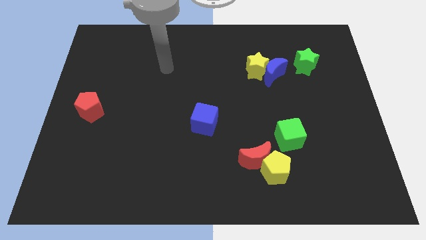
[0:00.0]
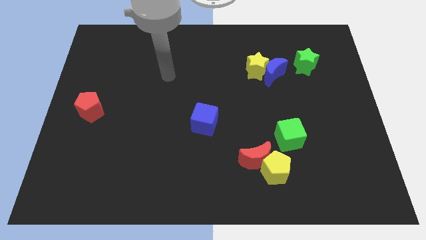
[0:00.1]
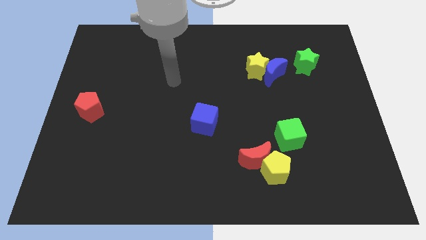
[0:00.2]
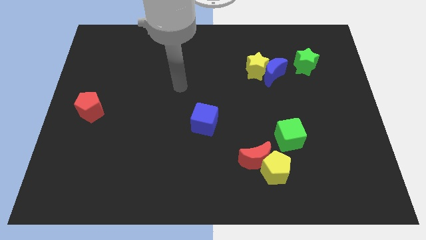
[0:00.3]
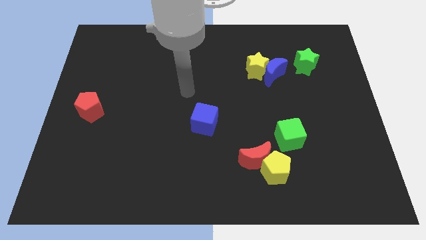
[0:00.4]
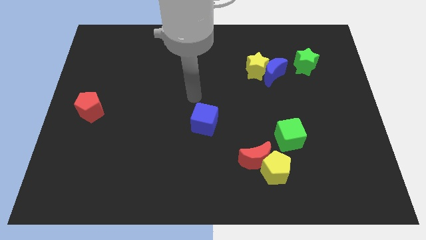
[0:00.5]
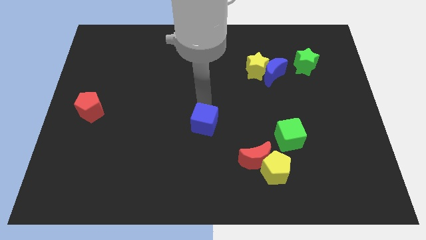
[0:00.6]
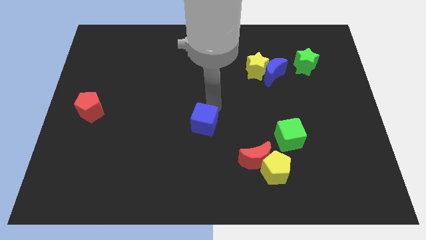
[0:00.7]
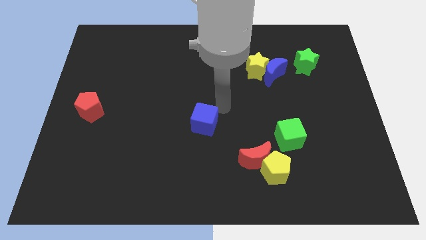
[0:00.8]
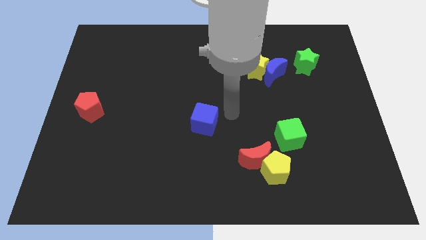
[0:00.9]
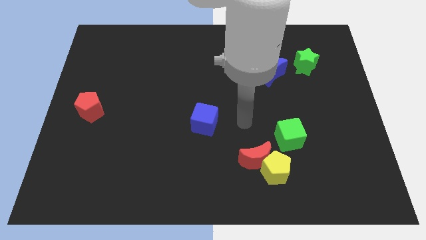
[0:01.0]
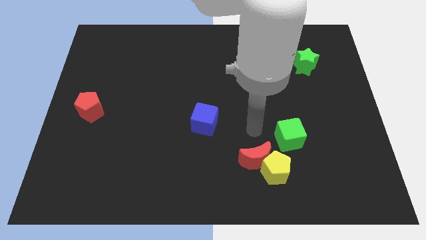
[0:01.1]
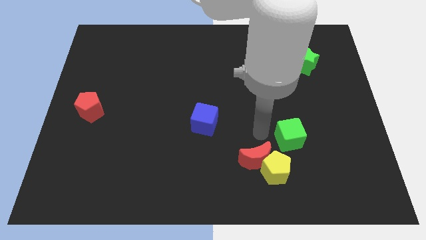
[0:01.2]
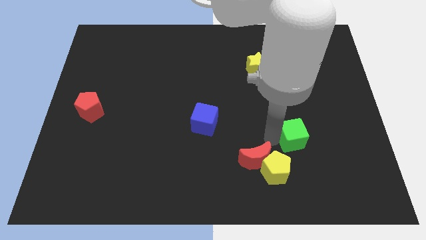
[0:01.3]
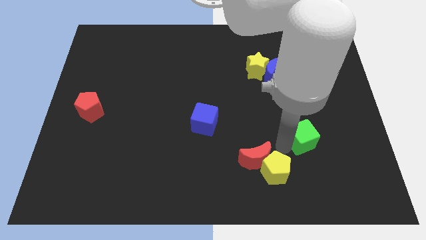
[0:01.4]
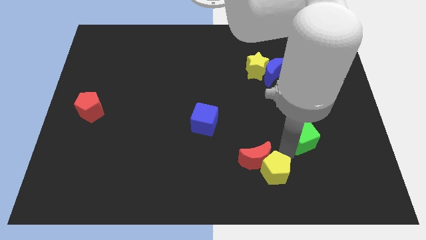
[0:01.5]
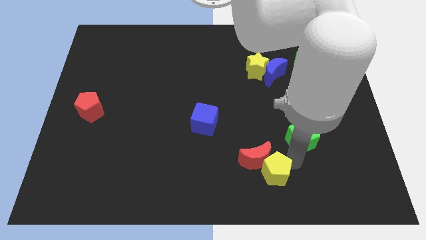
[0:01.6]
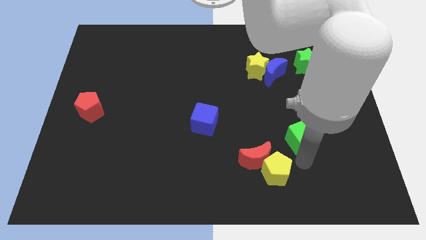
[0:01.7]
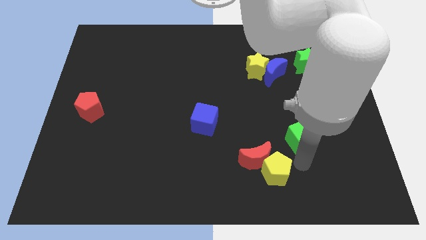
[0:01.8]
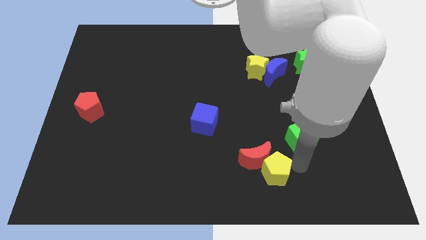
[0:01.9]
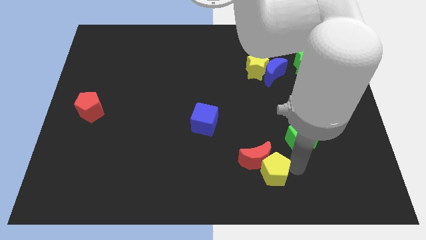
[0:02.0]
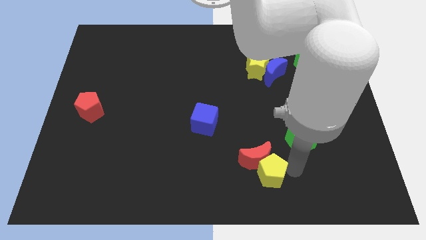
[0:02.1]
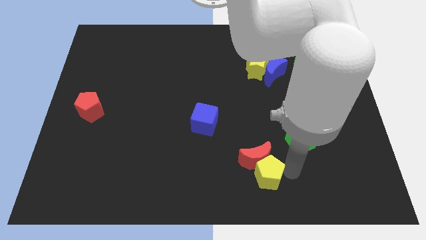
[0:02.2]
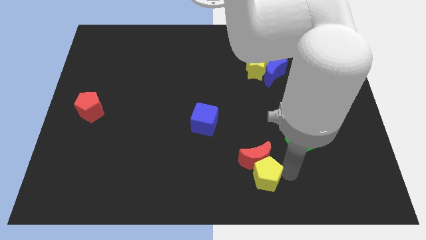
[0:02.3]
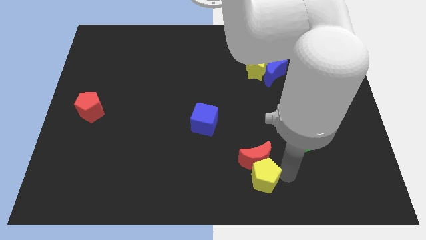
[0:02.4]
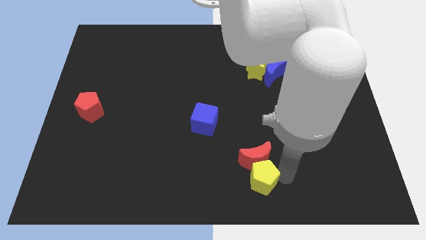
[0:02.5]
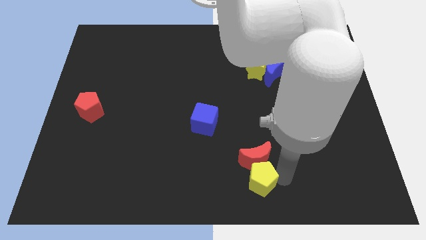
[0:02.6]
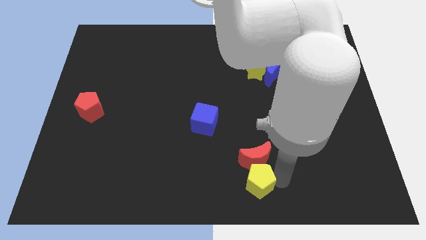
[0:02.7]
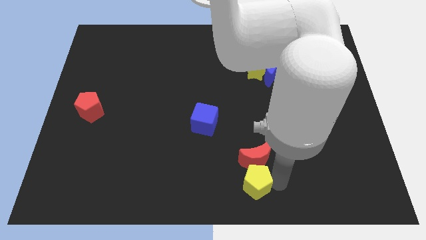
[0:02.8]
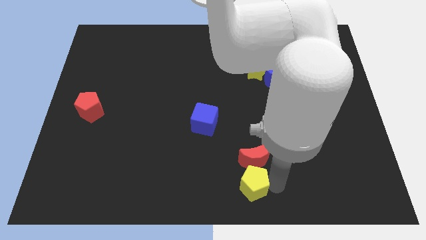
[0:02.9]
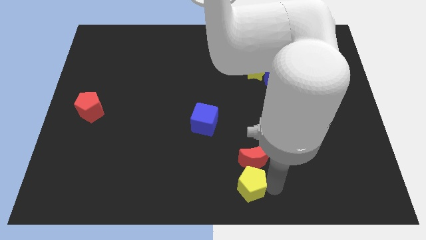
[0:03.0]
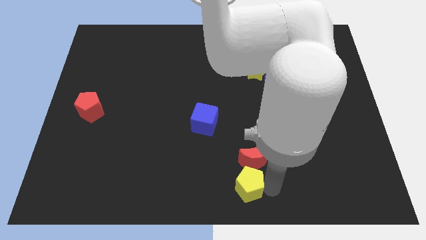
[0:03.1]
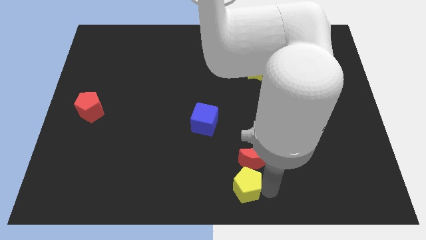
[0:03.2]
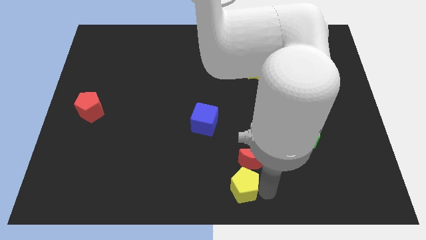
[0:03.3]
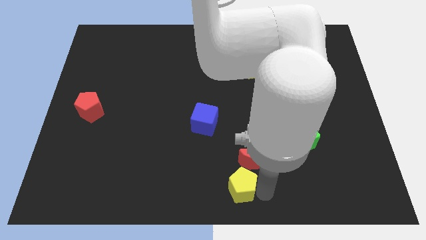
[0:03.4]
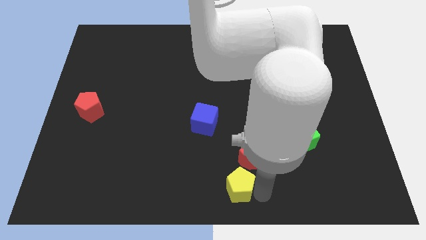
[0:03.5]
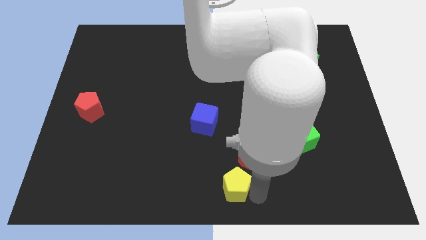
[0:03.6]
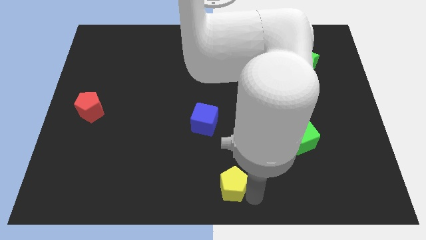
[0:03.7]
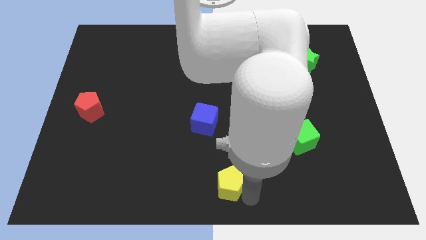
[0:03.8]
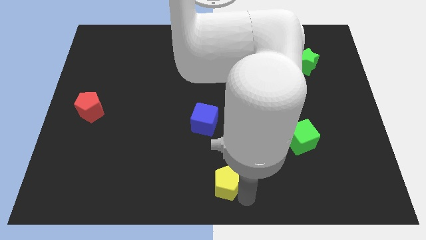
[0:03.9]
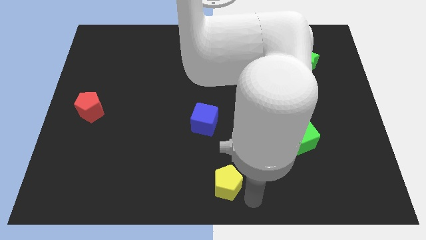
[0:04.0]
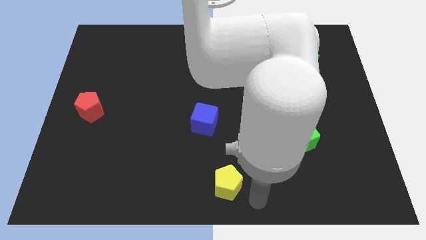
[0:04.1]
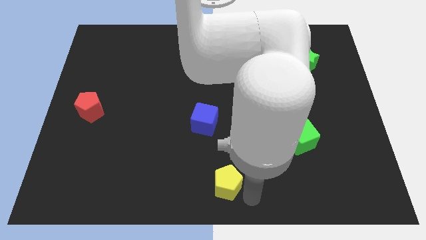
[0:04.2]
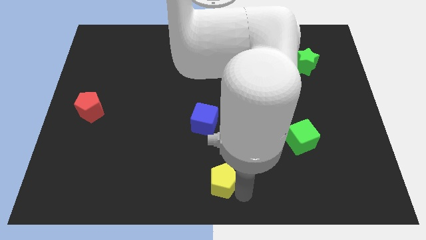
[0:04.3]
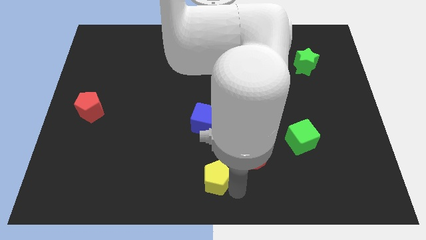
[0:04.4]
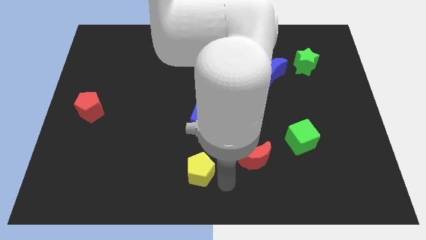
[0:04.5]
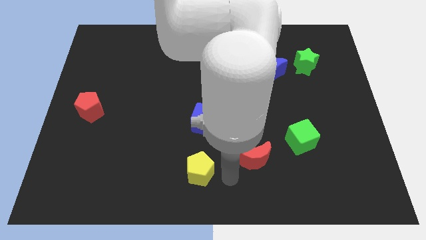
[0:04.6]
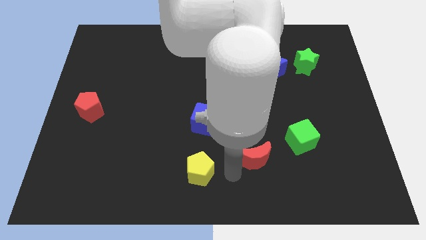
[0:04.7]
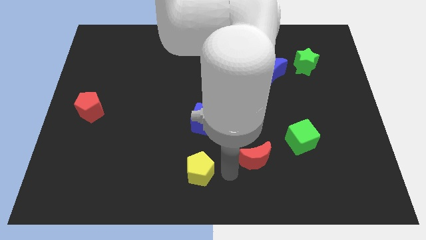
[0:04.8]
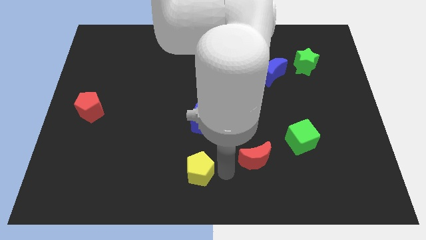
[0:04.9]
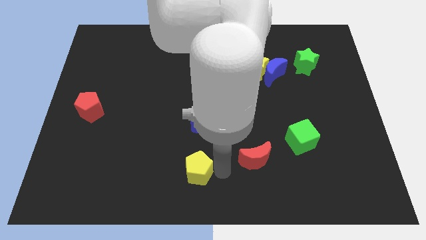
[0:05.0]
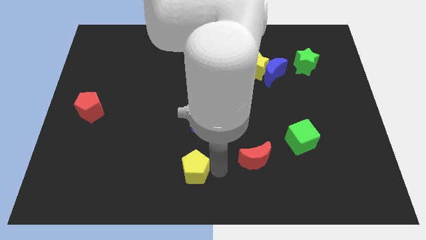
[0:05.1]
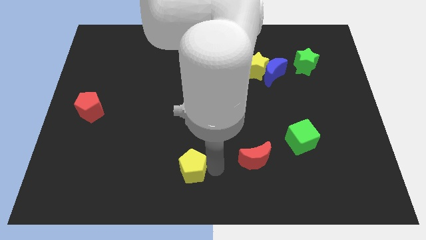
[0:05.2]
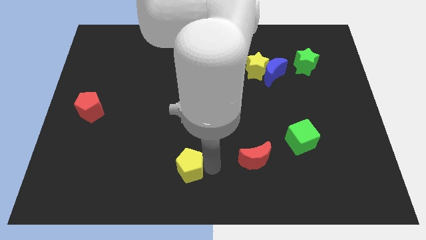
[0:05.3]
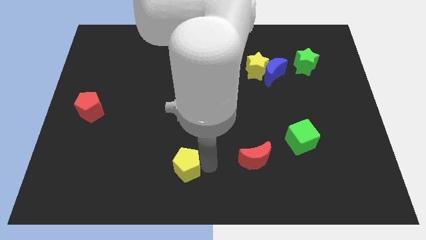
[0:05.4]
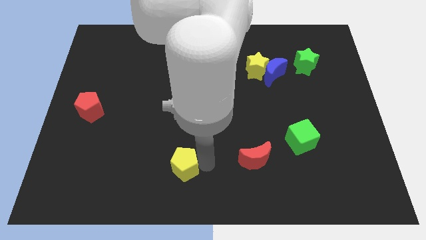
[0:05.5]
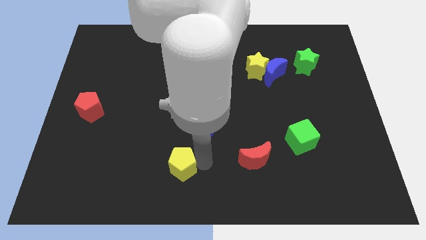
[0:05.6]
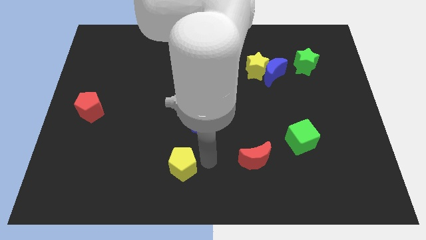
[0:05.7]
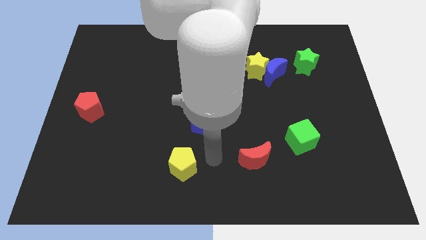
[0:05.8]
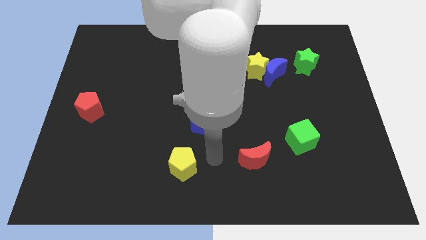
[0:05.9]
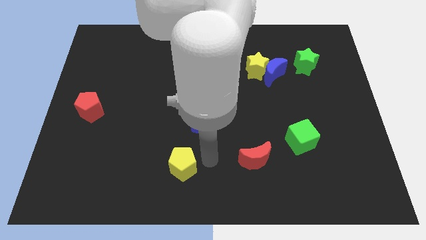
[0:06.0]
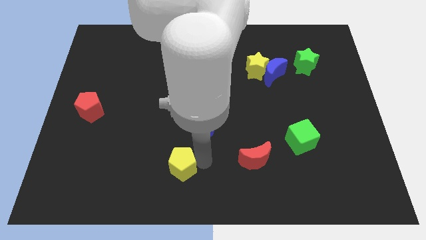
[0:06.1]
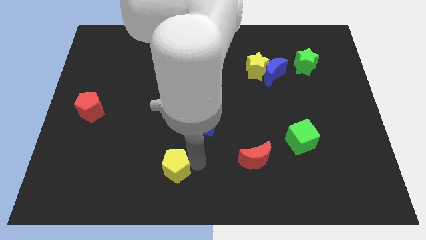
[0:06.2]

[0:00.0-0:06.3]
push the yellow pentagon left

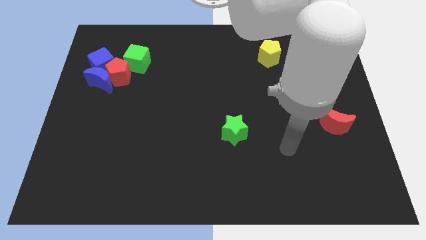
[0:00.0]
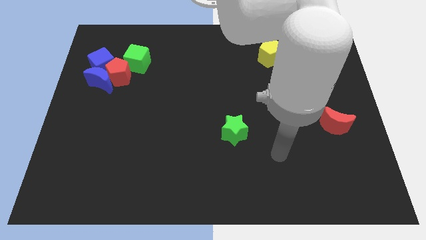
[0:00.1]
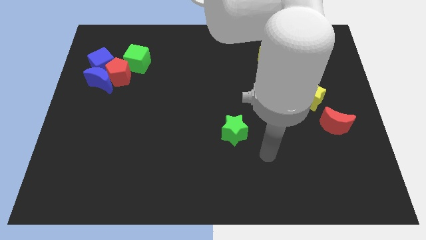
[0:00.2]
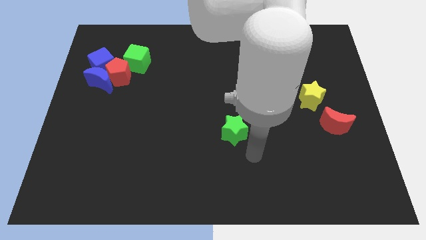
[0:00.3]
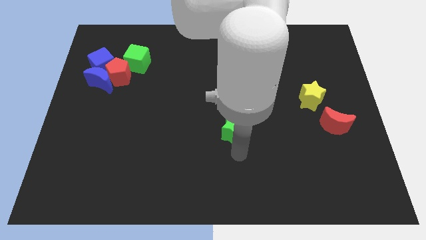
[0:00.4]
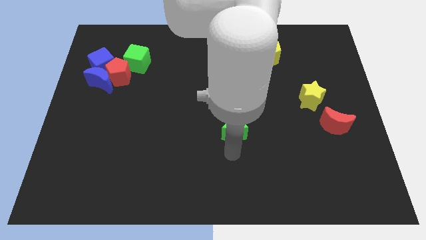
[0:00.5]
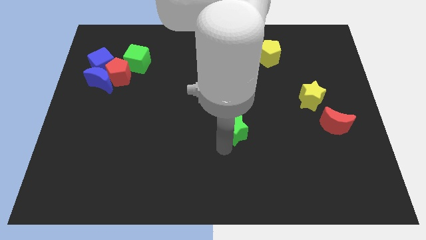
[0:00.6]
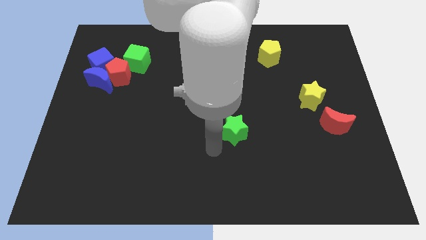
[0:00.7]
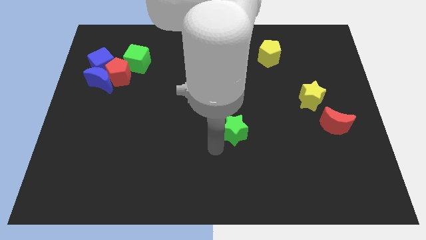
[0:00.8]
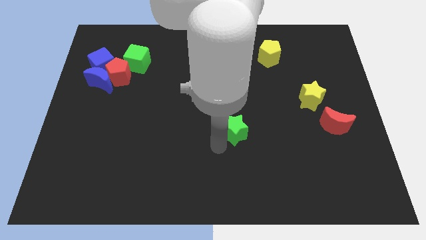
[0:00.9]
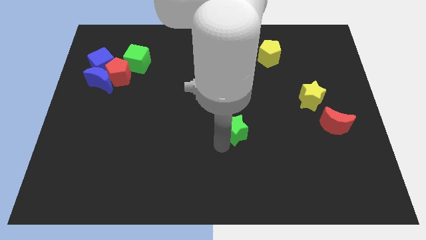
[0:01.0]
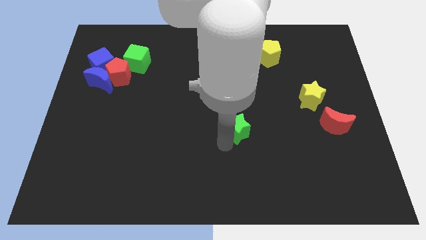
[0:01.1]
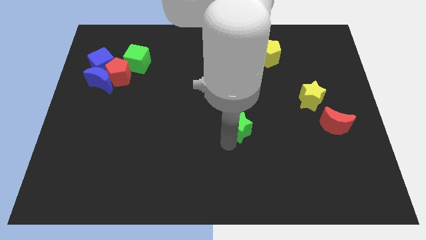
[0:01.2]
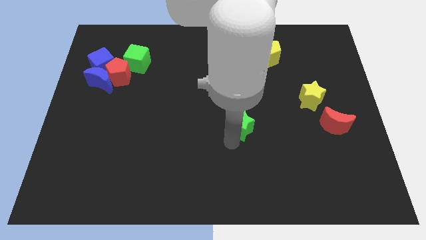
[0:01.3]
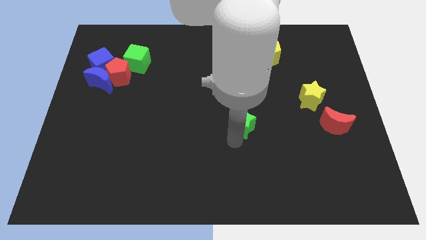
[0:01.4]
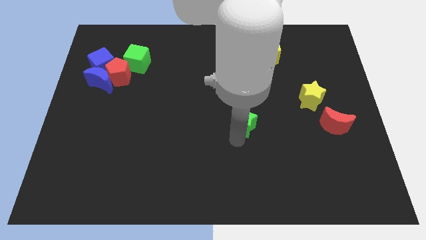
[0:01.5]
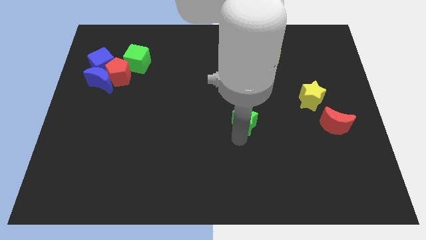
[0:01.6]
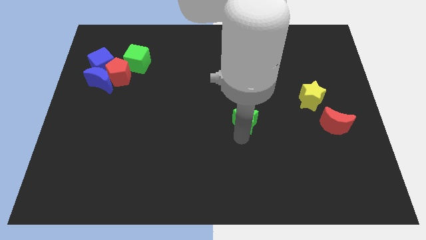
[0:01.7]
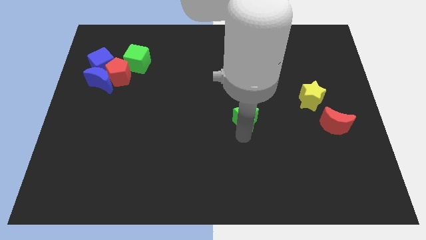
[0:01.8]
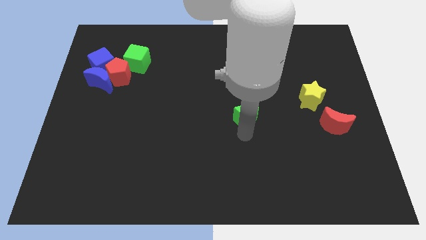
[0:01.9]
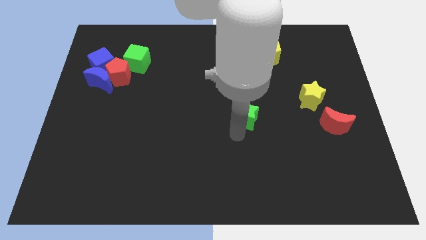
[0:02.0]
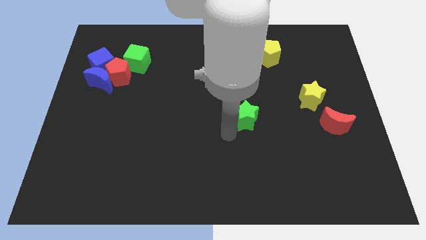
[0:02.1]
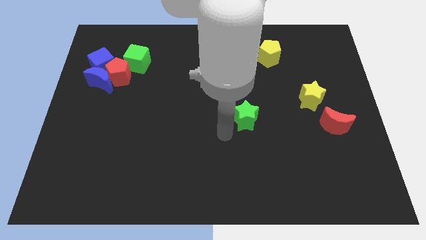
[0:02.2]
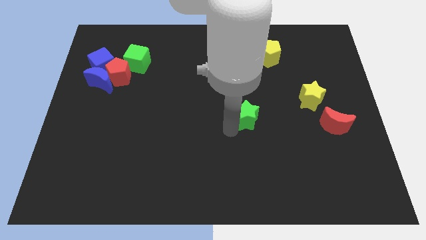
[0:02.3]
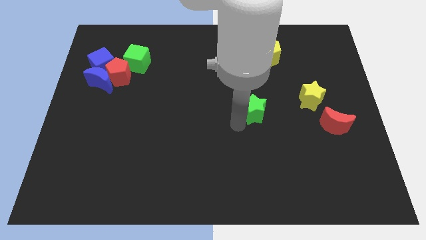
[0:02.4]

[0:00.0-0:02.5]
slightly push the green star diagonally upwards and to the right
